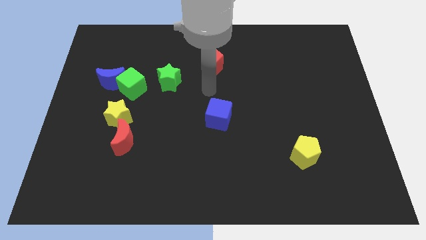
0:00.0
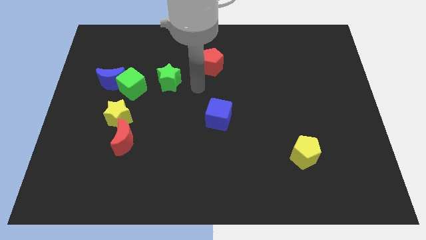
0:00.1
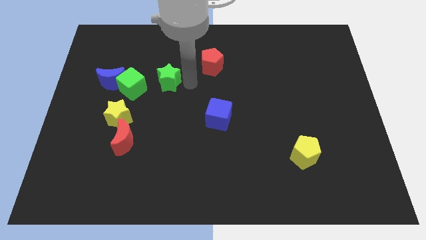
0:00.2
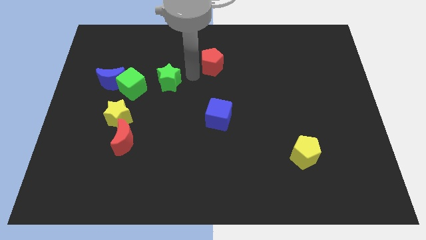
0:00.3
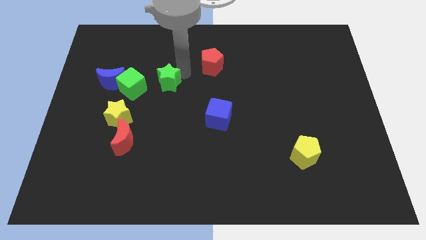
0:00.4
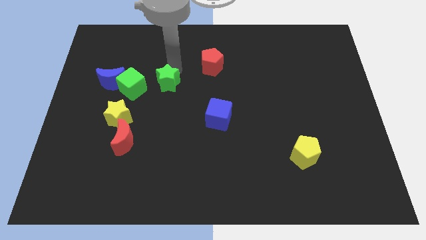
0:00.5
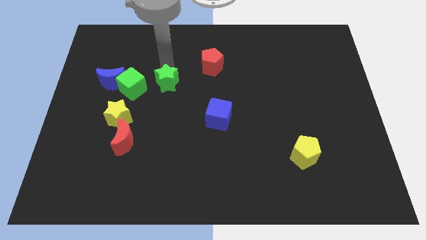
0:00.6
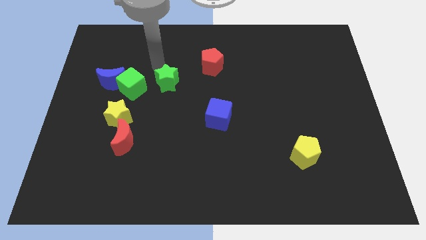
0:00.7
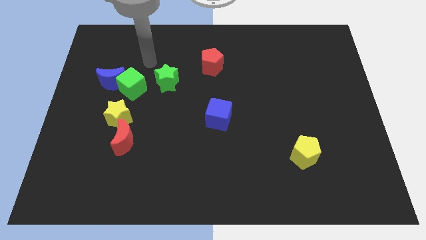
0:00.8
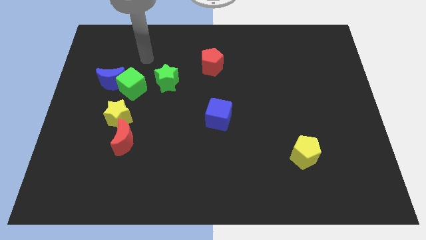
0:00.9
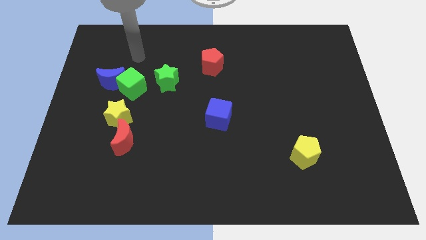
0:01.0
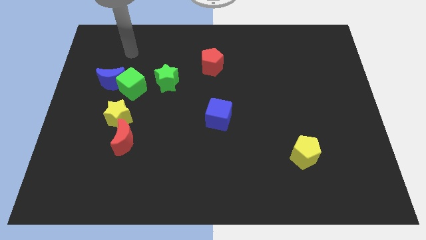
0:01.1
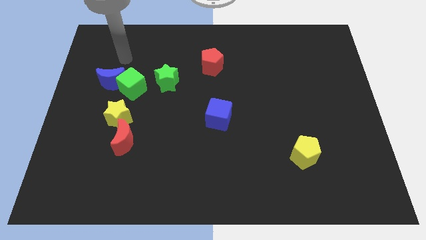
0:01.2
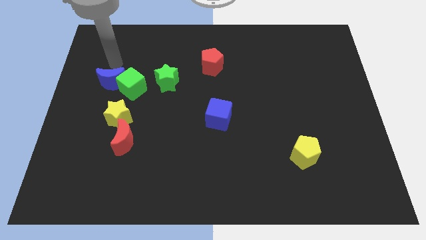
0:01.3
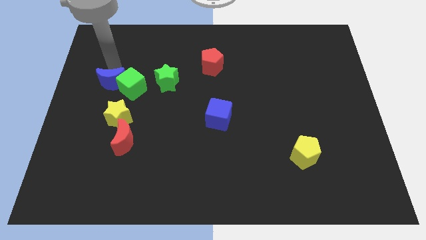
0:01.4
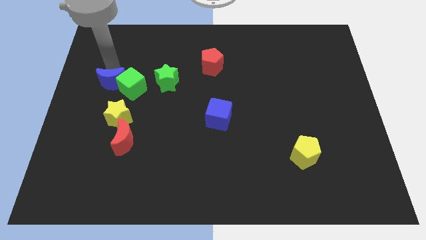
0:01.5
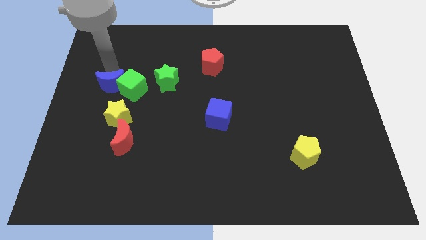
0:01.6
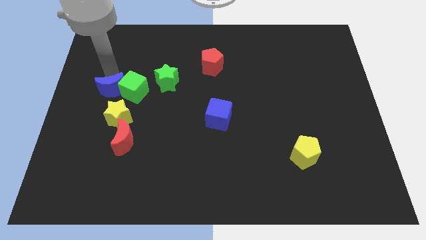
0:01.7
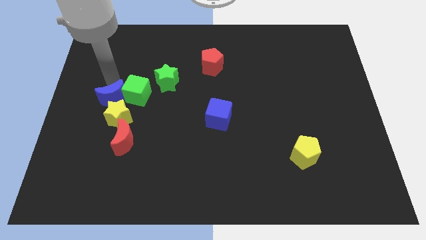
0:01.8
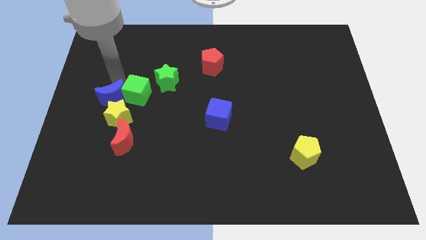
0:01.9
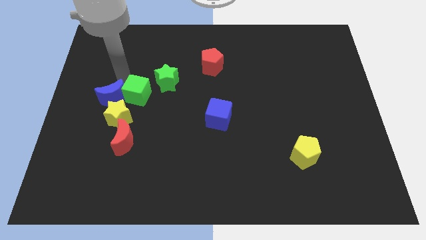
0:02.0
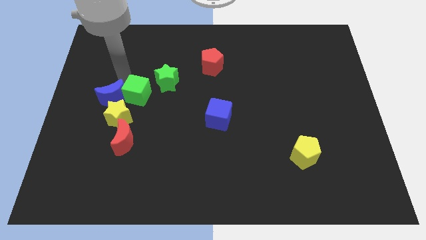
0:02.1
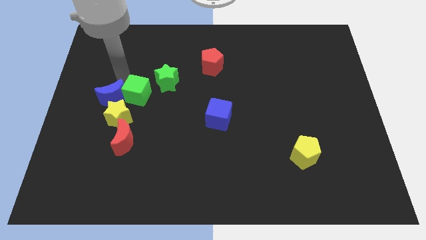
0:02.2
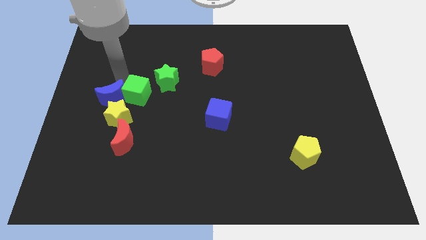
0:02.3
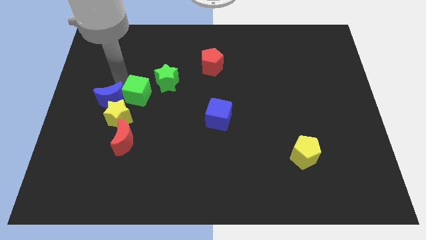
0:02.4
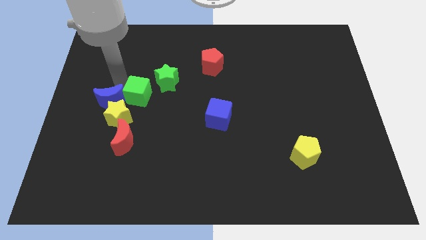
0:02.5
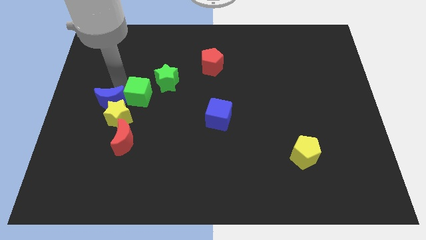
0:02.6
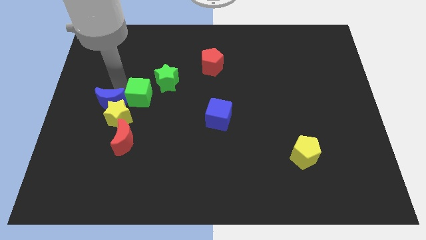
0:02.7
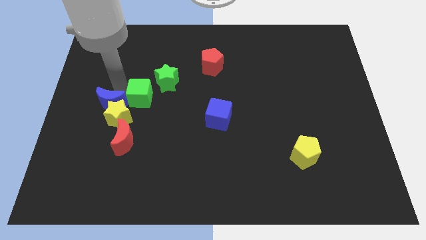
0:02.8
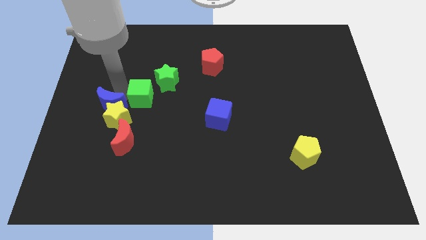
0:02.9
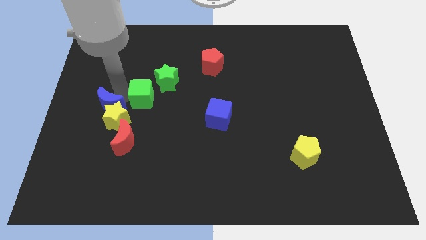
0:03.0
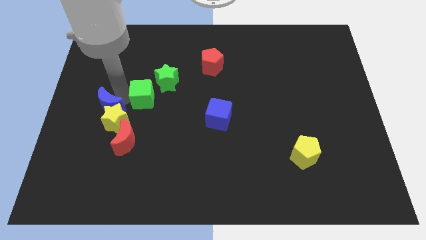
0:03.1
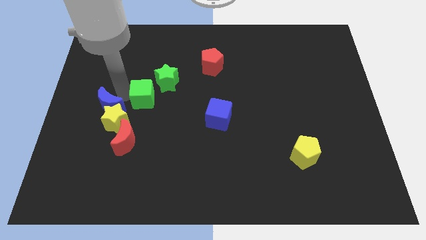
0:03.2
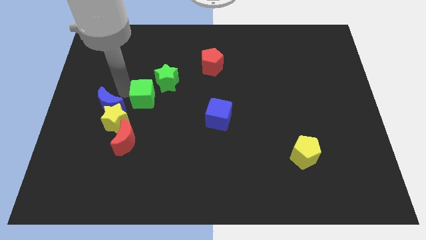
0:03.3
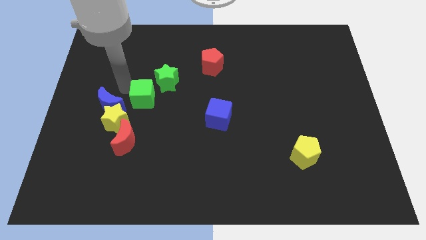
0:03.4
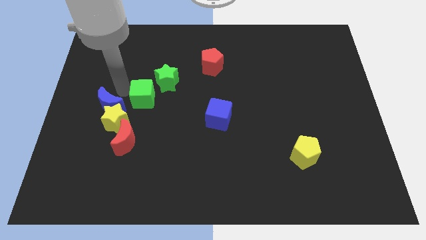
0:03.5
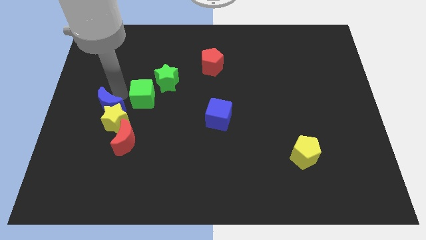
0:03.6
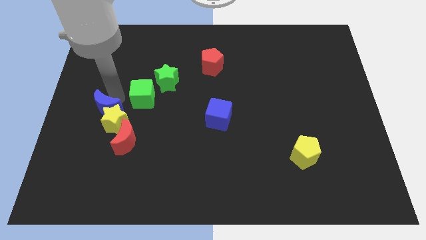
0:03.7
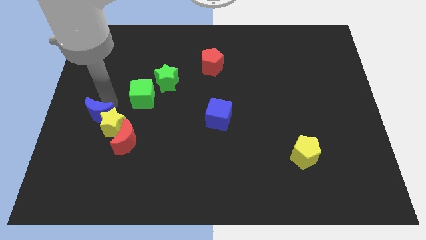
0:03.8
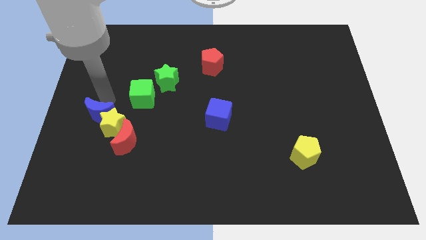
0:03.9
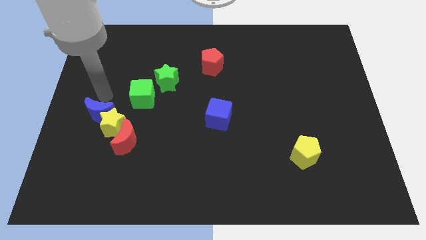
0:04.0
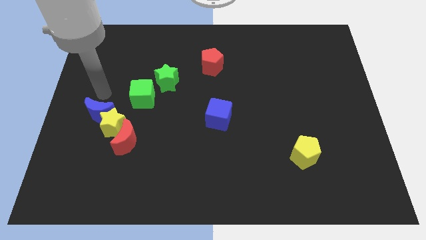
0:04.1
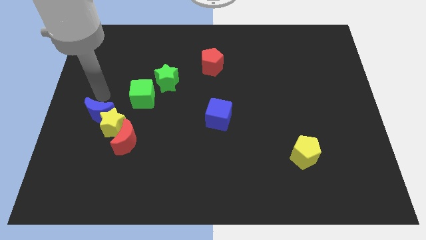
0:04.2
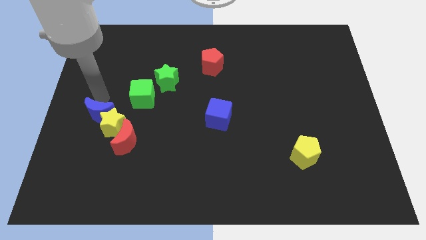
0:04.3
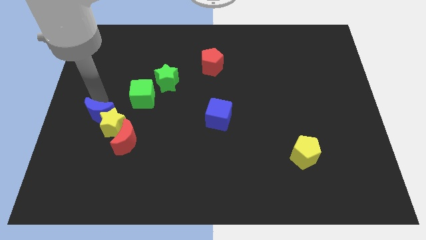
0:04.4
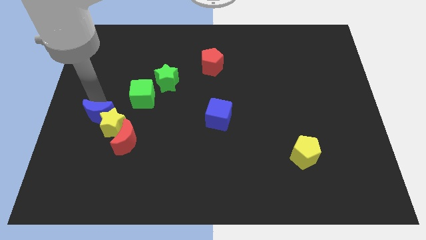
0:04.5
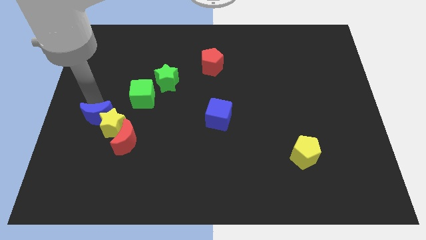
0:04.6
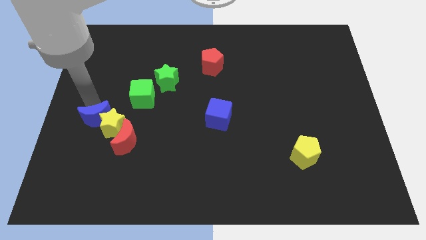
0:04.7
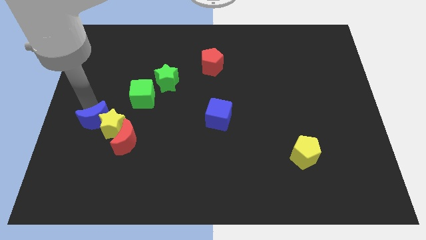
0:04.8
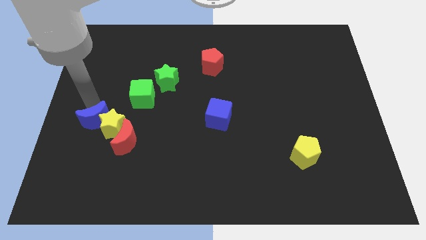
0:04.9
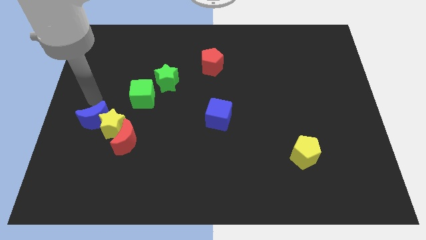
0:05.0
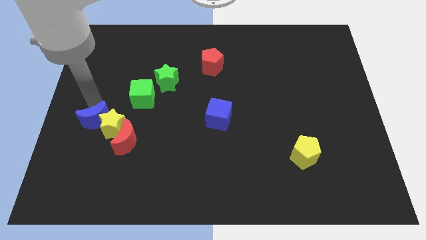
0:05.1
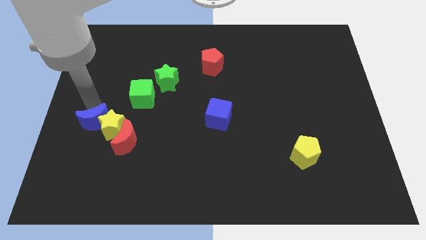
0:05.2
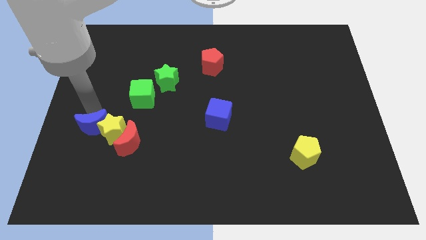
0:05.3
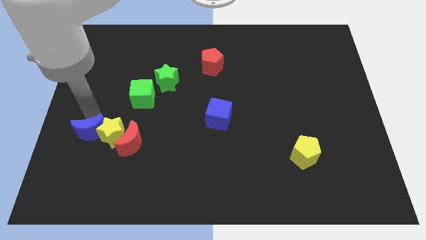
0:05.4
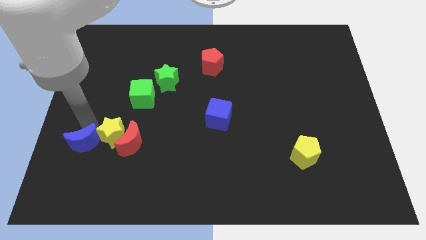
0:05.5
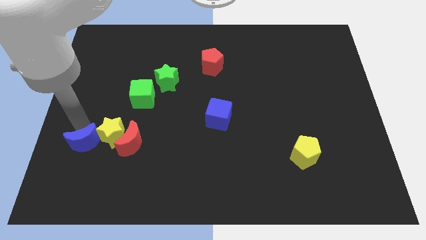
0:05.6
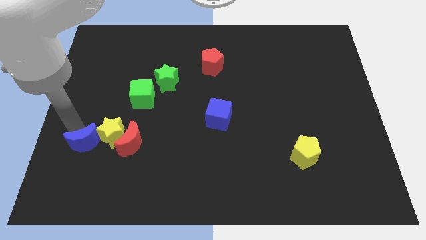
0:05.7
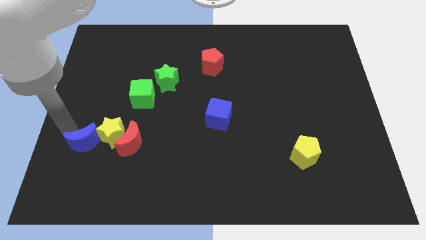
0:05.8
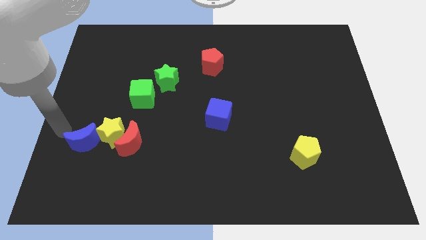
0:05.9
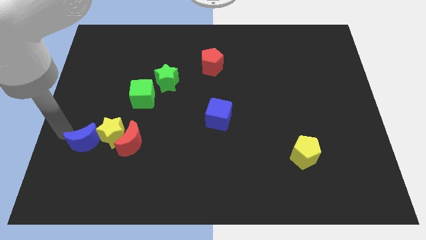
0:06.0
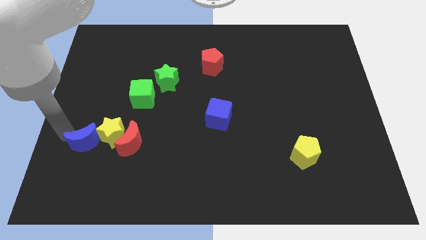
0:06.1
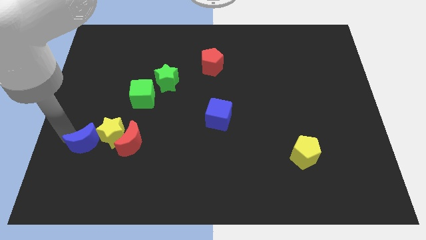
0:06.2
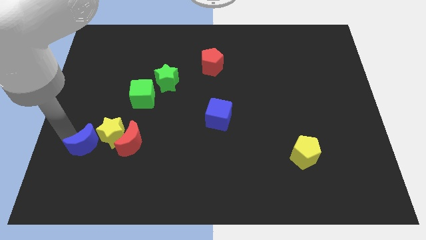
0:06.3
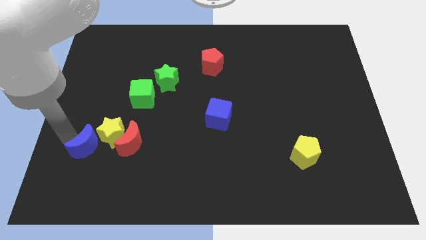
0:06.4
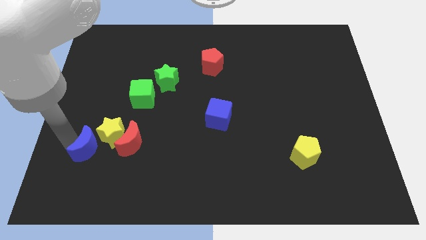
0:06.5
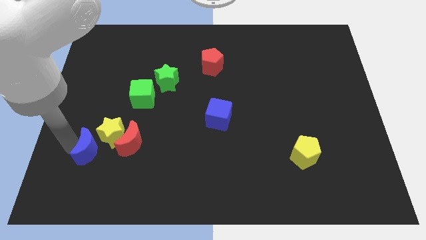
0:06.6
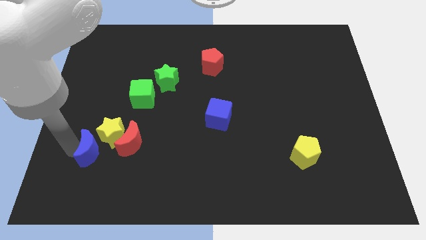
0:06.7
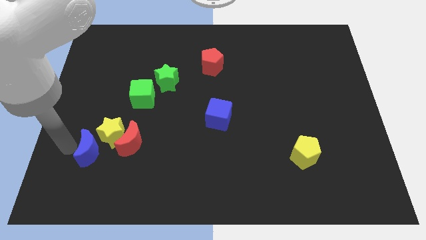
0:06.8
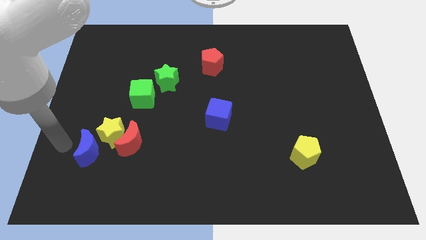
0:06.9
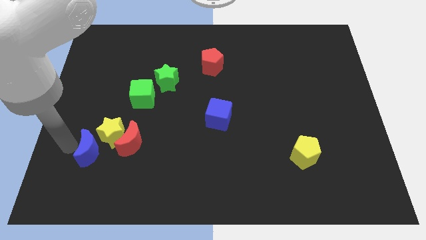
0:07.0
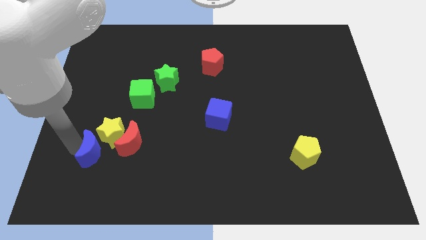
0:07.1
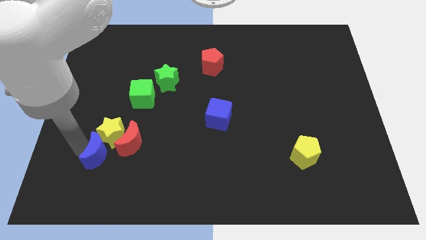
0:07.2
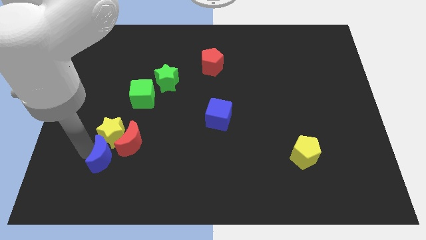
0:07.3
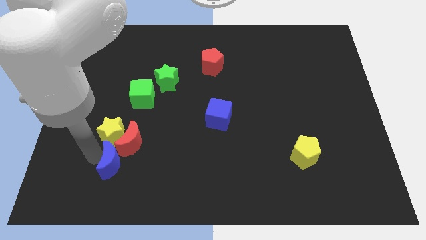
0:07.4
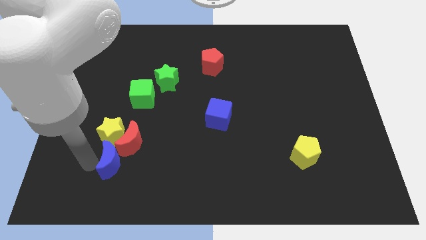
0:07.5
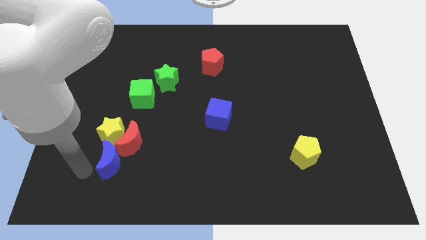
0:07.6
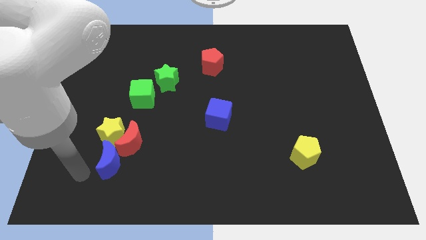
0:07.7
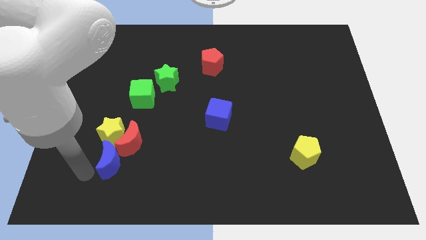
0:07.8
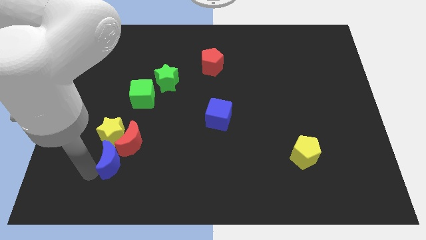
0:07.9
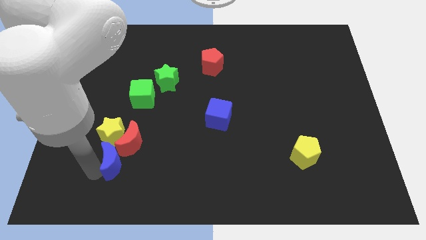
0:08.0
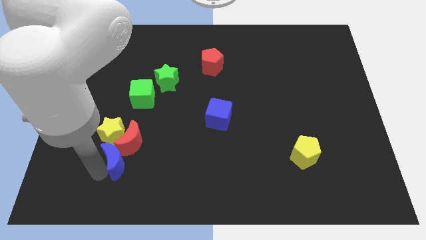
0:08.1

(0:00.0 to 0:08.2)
slightly move the blue moon down and then right

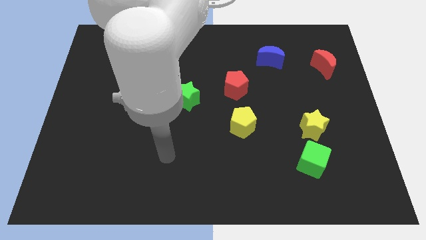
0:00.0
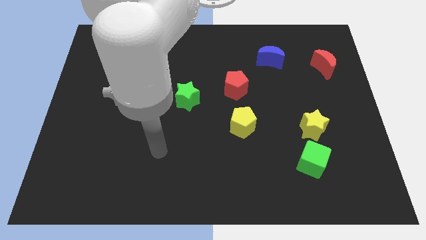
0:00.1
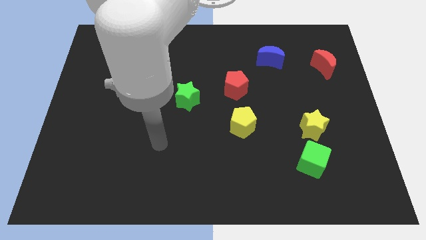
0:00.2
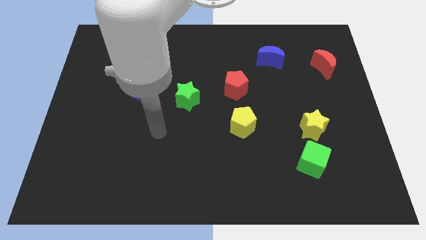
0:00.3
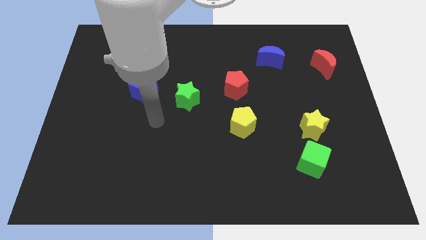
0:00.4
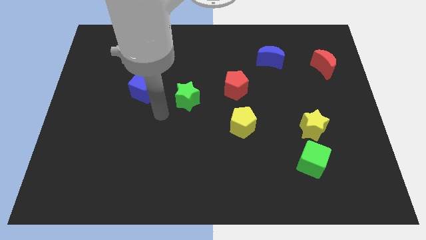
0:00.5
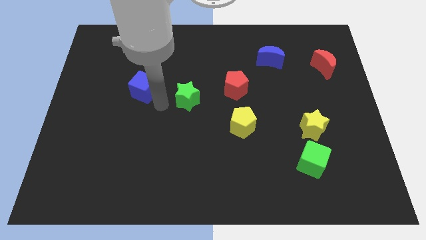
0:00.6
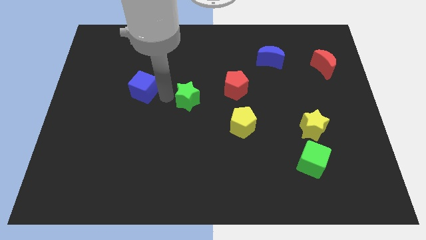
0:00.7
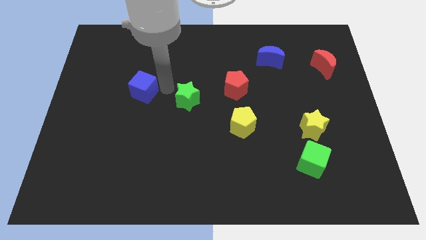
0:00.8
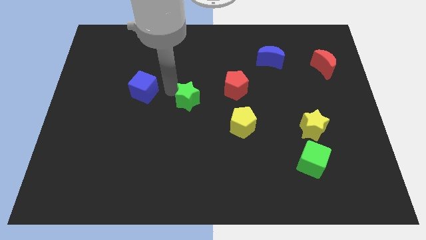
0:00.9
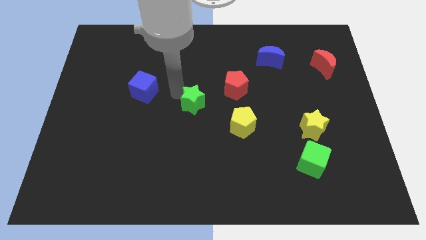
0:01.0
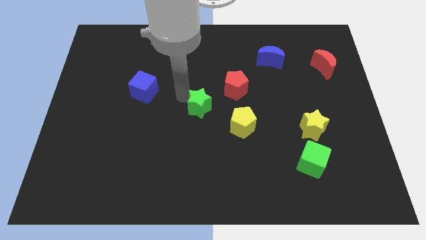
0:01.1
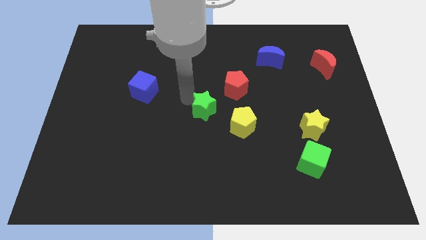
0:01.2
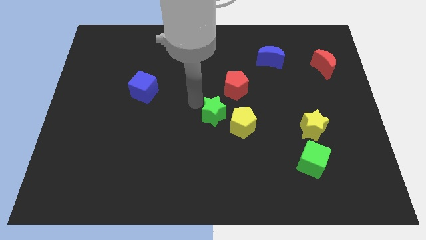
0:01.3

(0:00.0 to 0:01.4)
slightly slide the green star down and to the right
